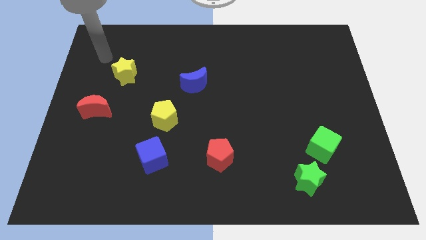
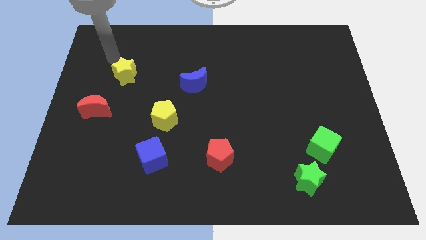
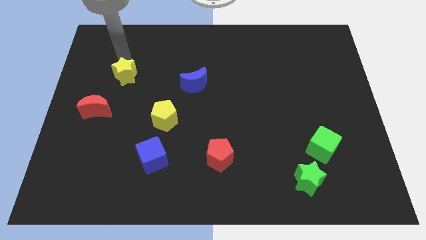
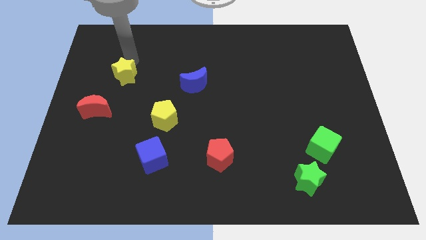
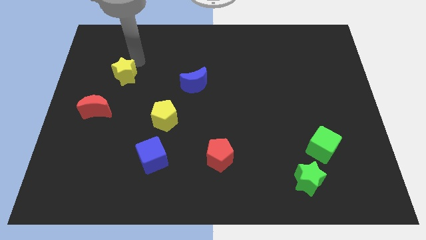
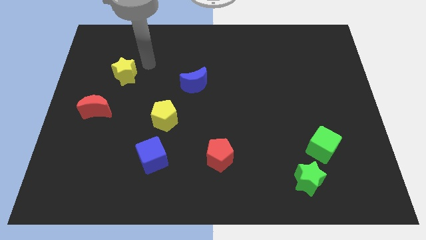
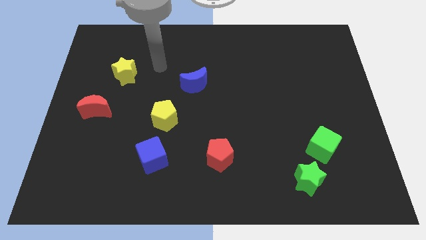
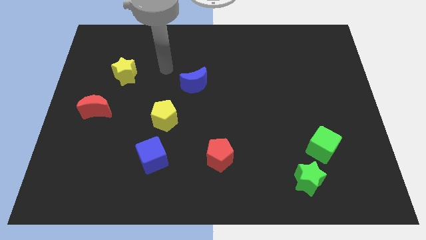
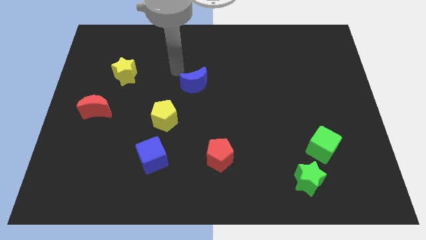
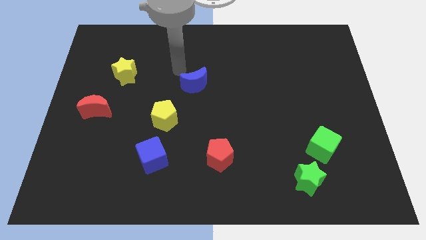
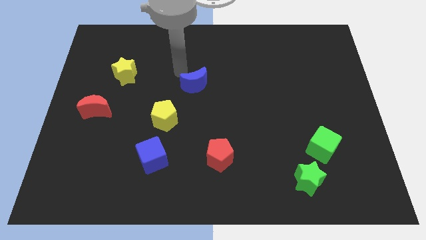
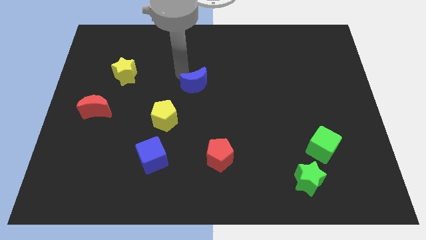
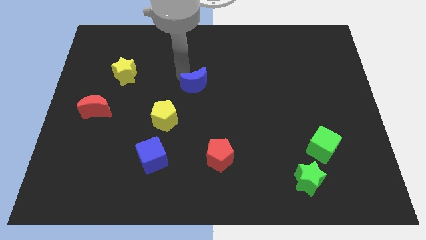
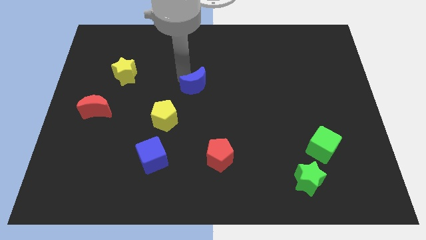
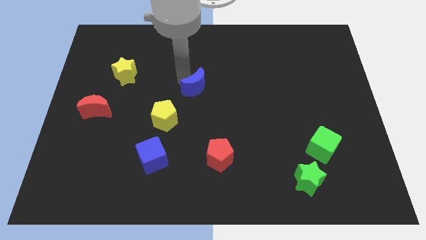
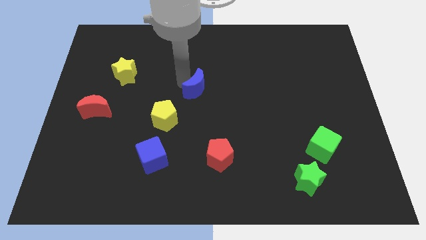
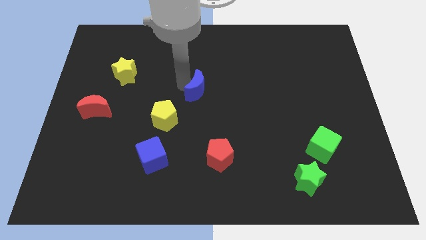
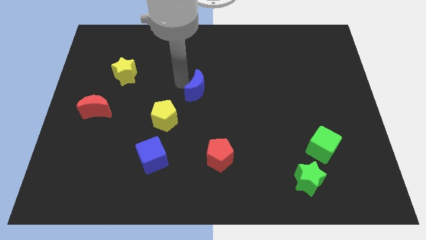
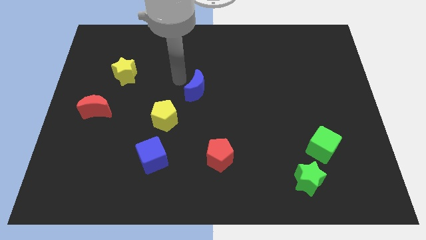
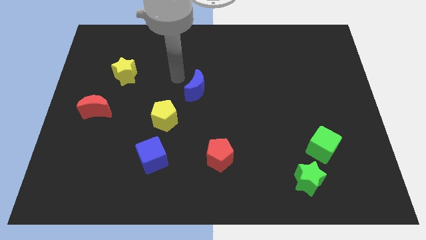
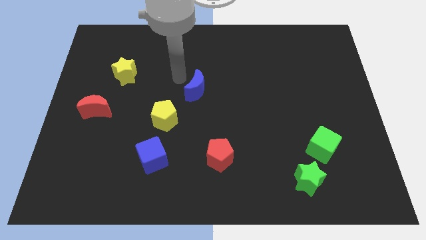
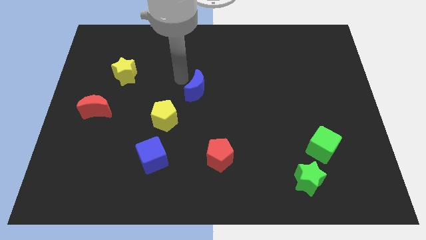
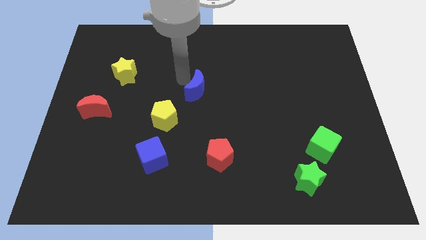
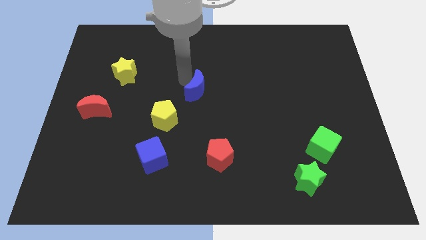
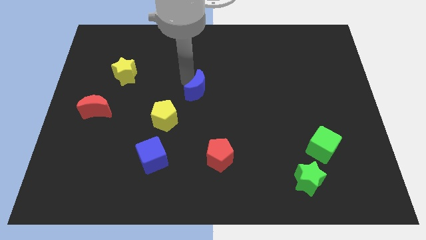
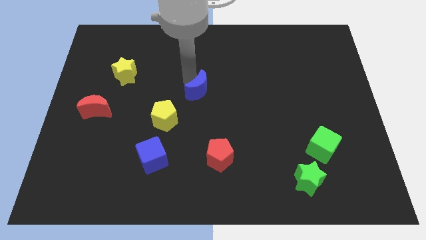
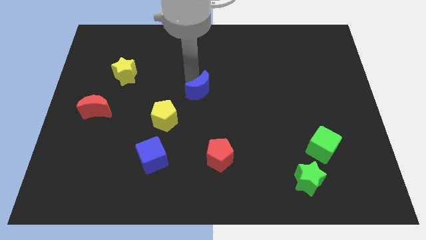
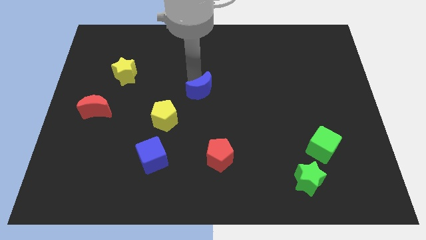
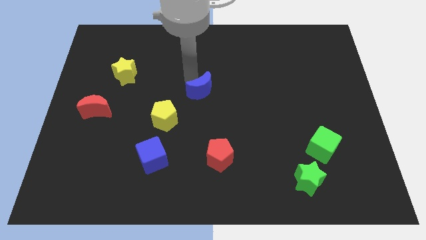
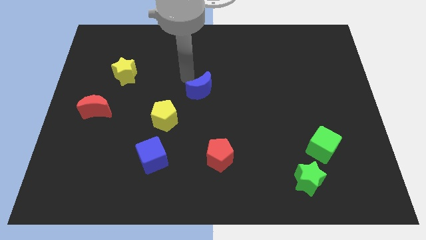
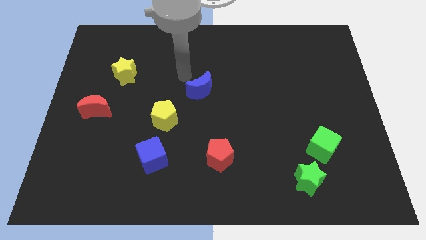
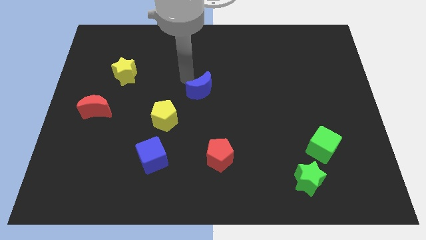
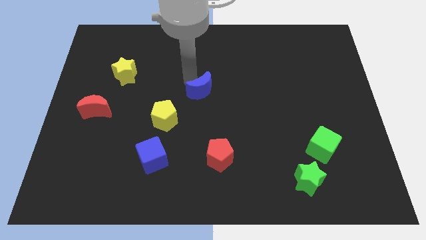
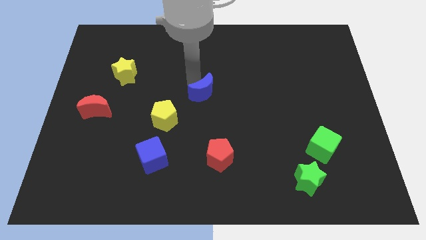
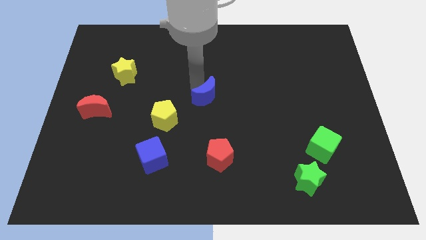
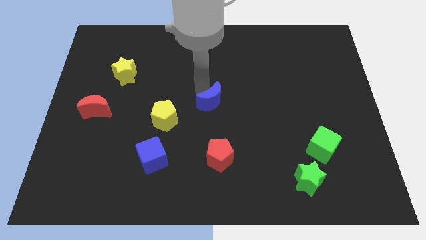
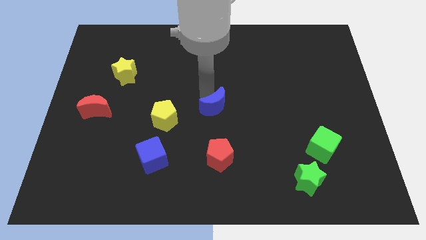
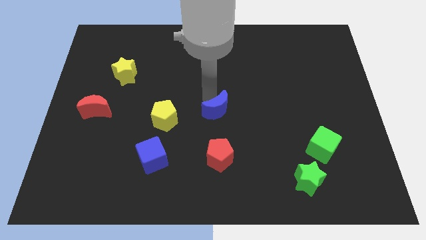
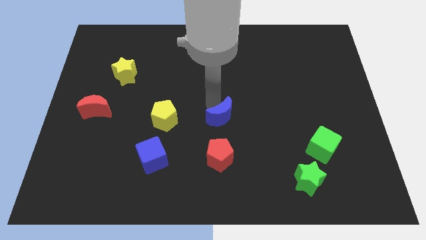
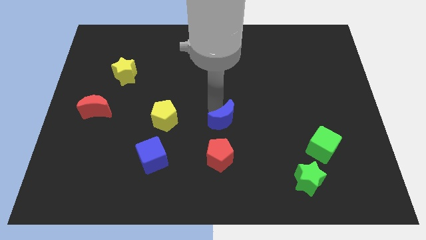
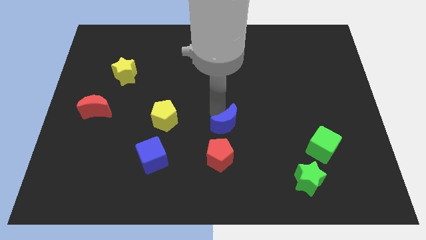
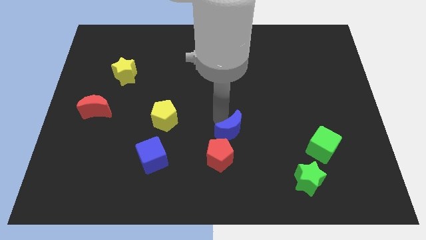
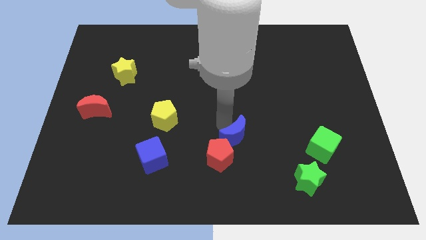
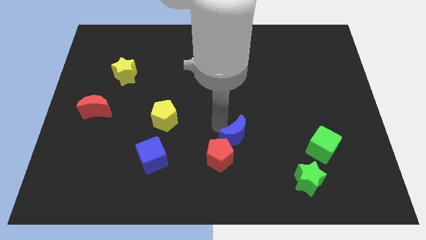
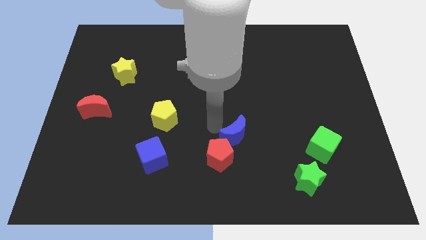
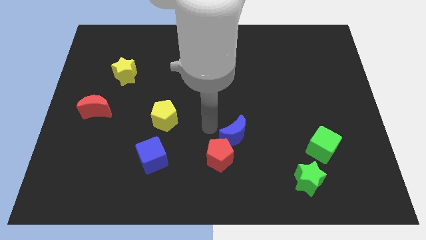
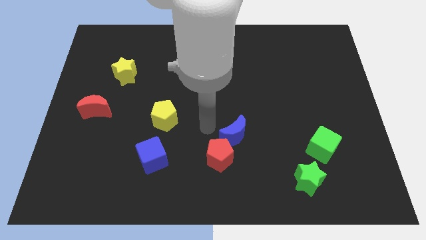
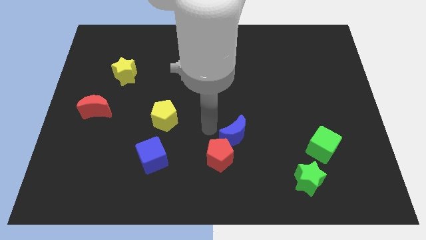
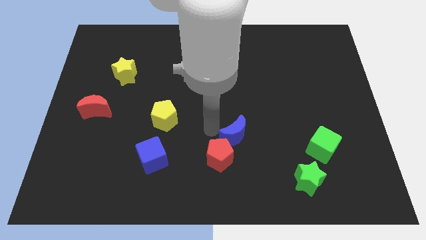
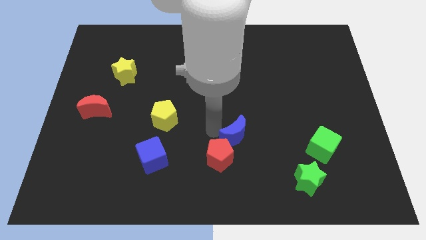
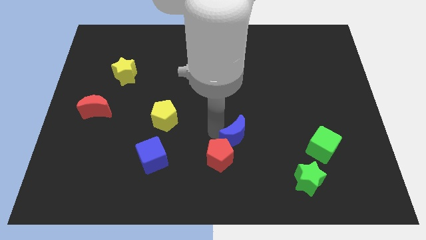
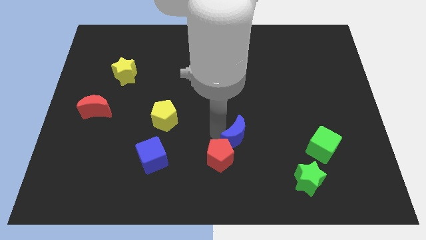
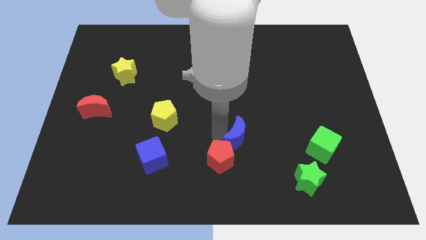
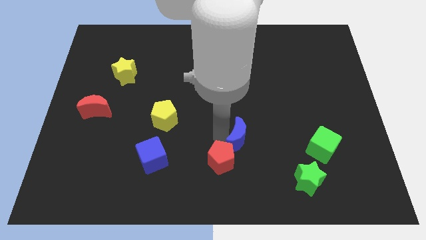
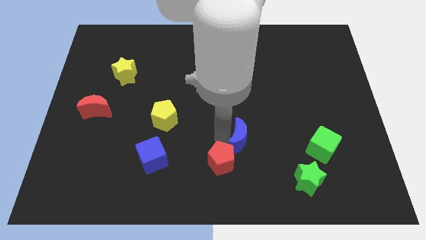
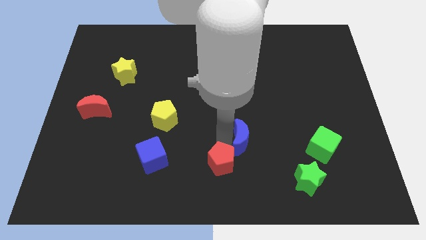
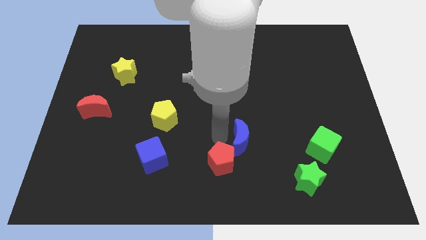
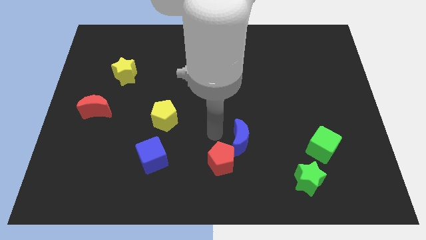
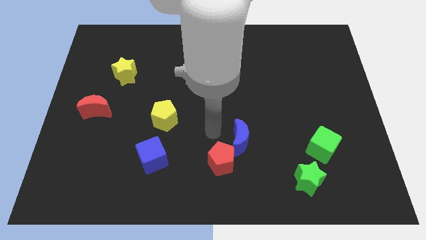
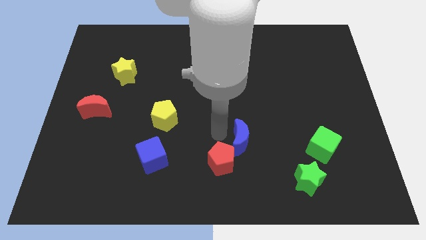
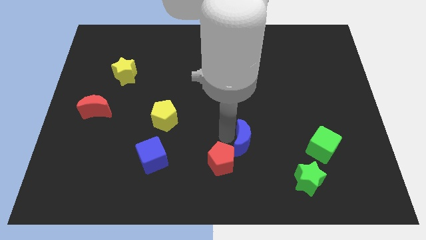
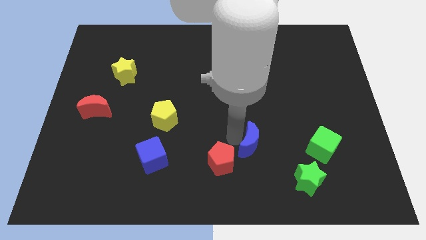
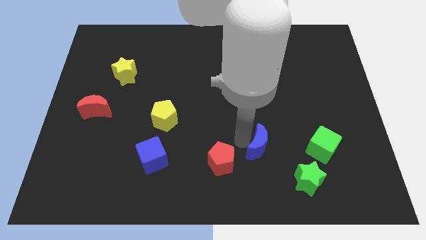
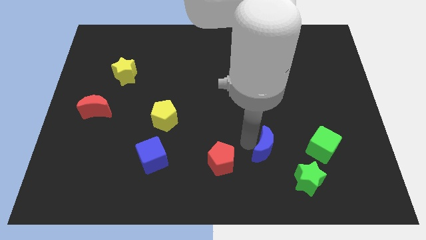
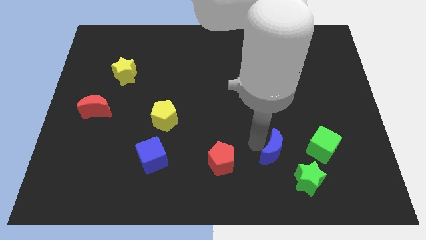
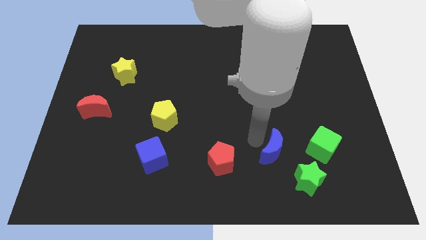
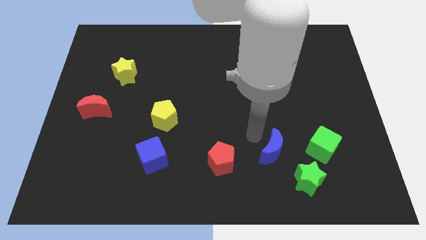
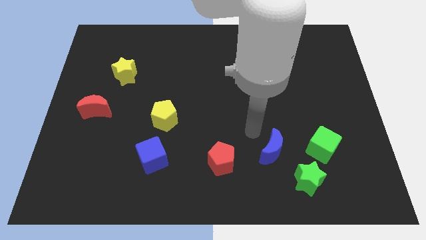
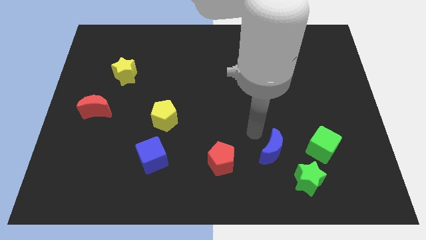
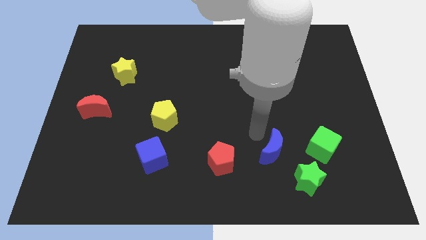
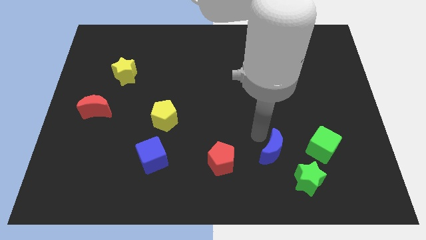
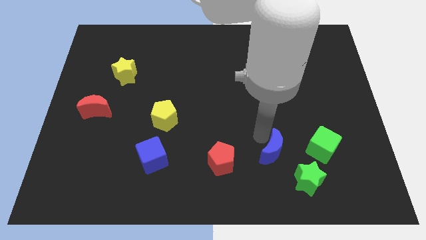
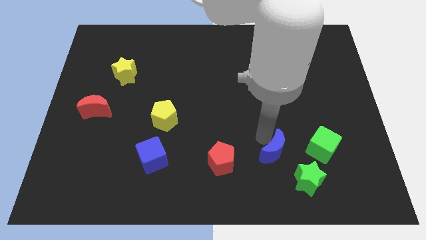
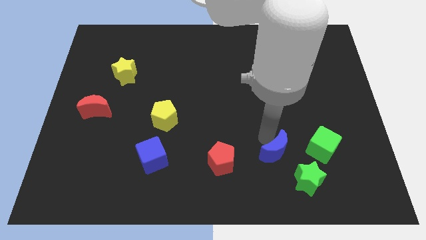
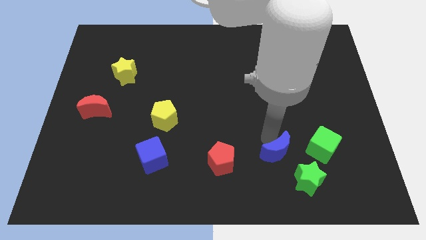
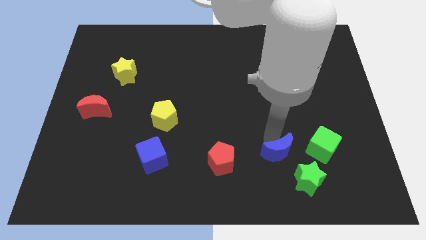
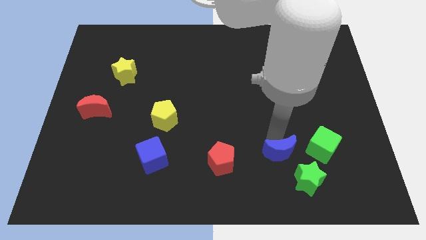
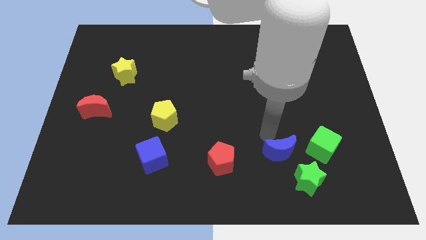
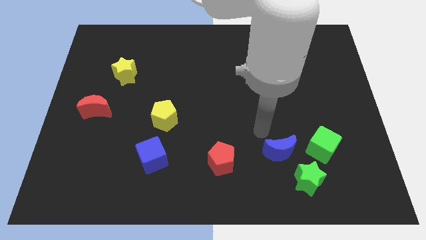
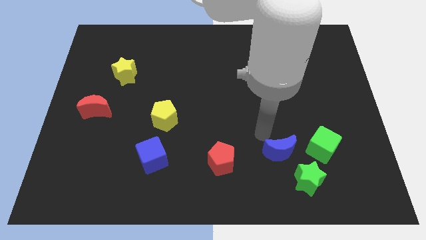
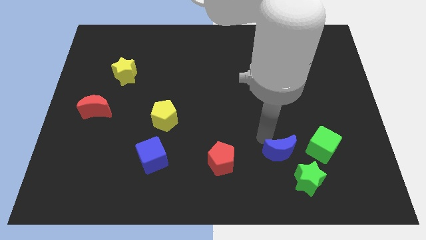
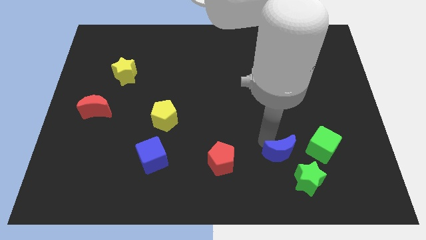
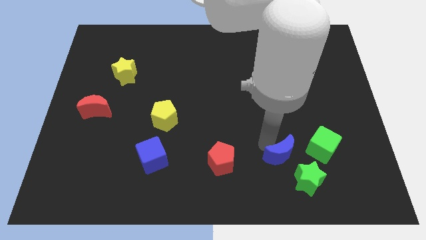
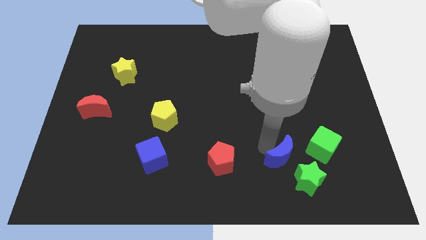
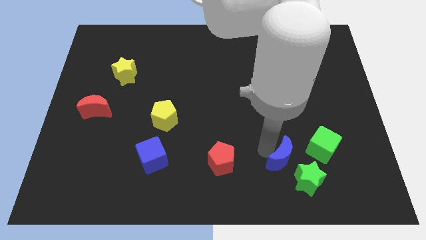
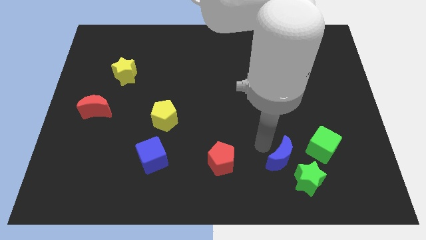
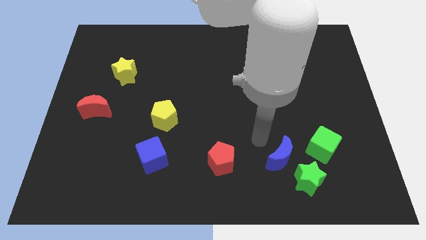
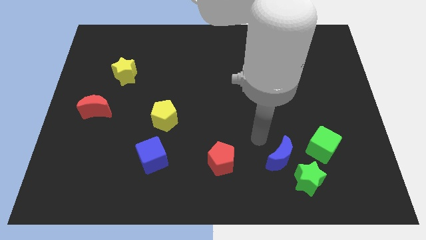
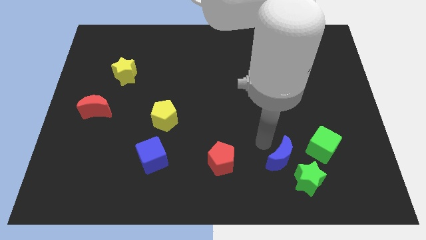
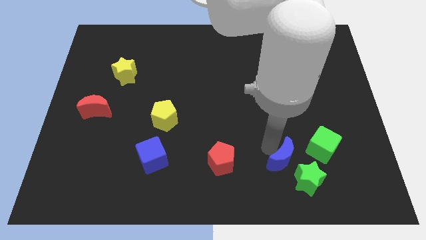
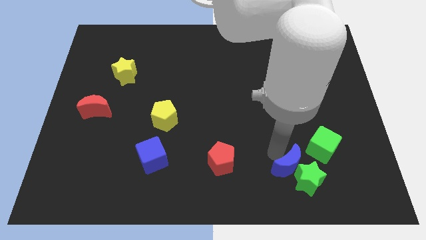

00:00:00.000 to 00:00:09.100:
slide the blue moon to the green star
